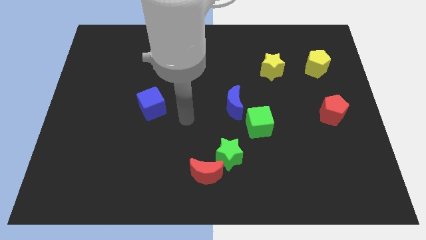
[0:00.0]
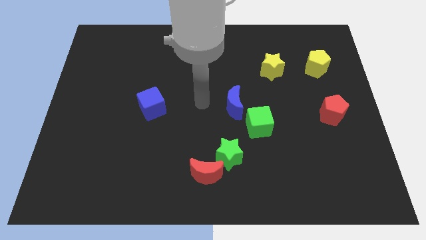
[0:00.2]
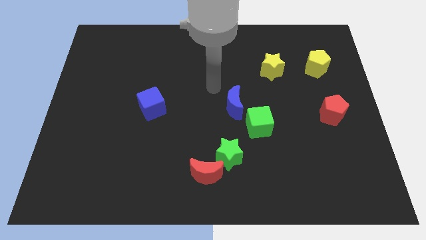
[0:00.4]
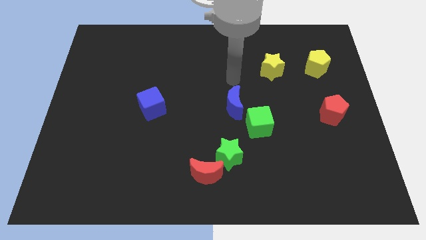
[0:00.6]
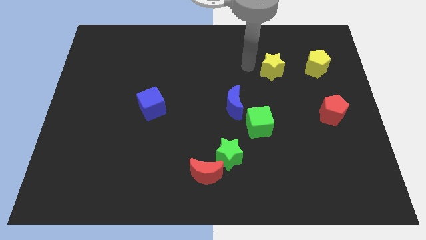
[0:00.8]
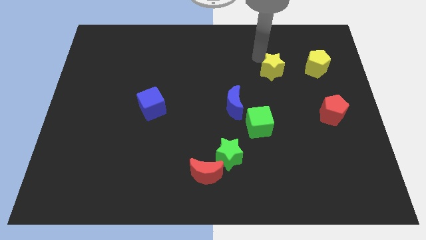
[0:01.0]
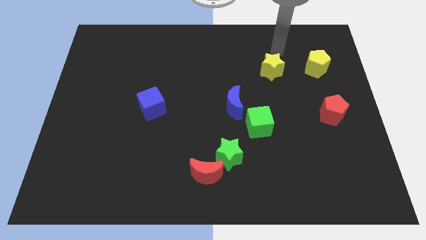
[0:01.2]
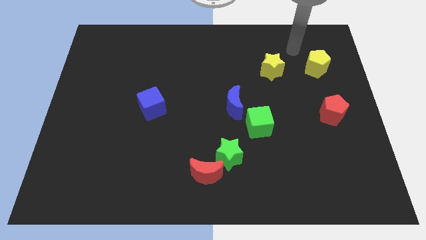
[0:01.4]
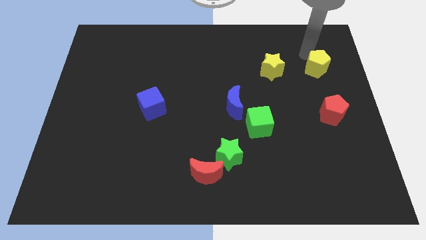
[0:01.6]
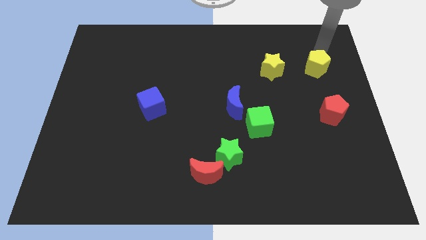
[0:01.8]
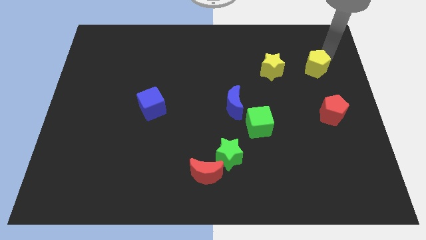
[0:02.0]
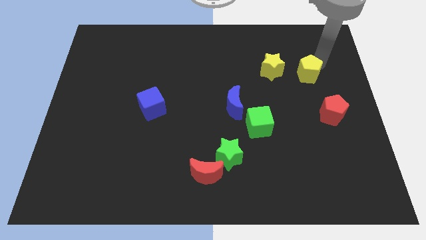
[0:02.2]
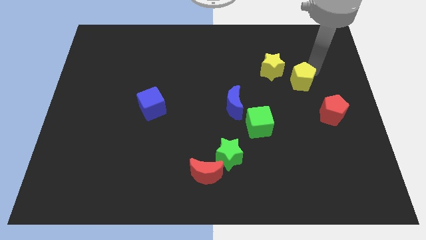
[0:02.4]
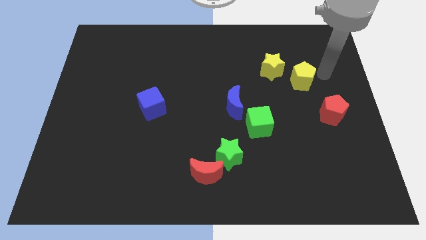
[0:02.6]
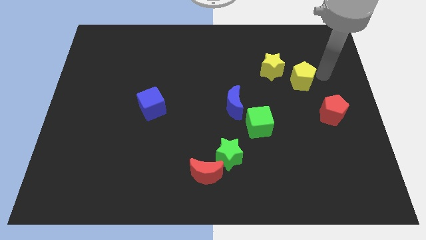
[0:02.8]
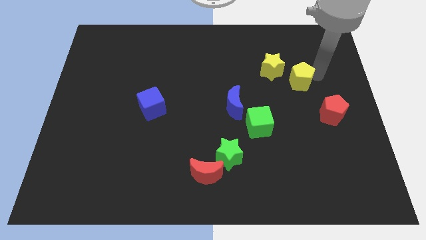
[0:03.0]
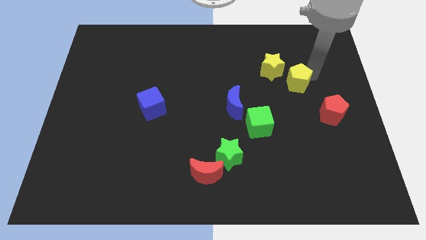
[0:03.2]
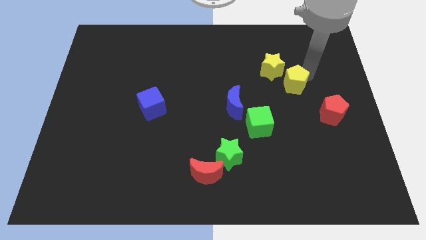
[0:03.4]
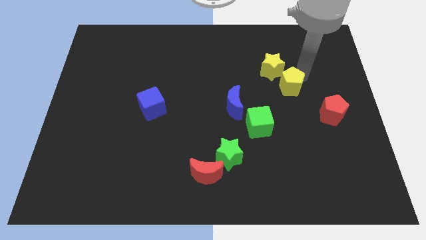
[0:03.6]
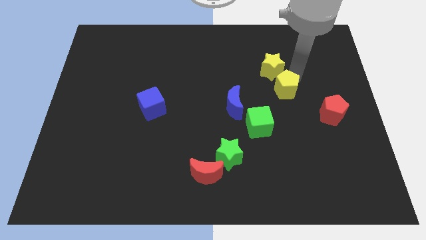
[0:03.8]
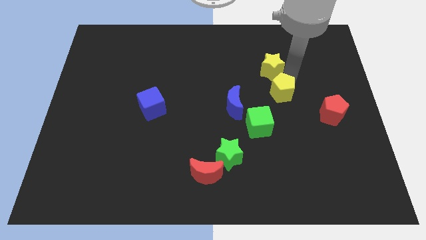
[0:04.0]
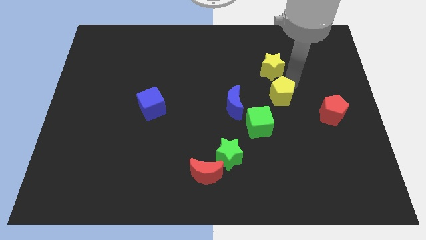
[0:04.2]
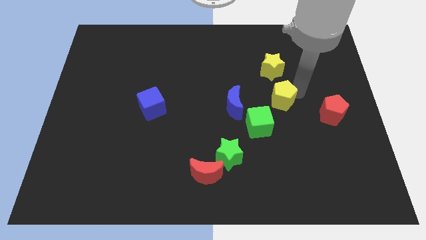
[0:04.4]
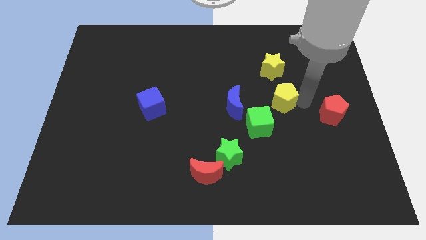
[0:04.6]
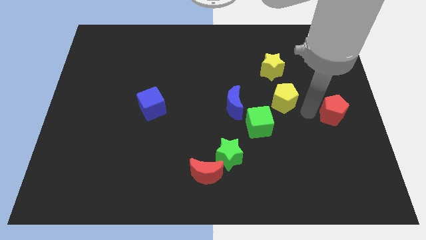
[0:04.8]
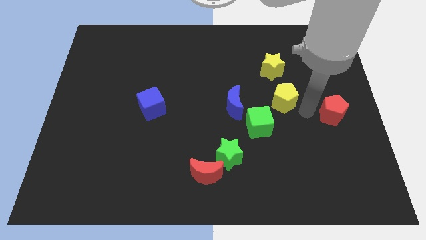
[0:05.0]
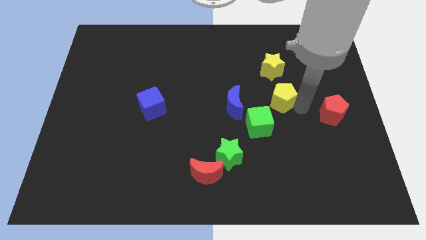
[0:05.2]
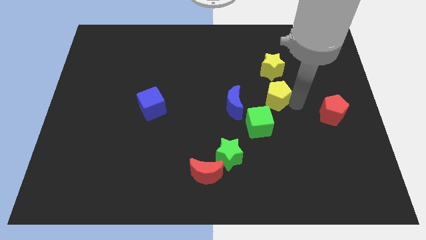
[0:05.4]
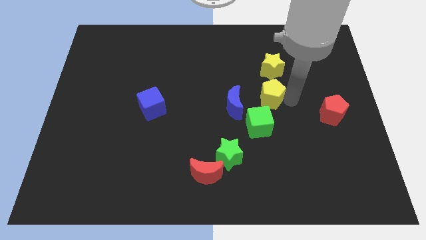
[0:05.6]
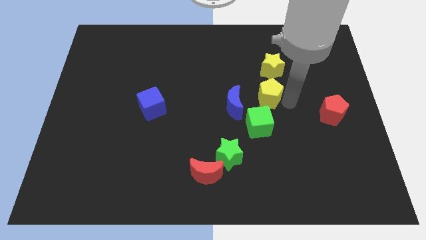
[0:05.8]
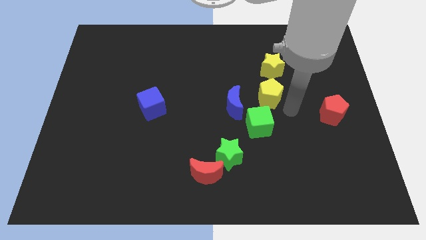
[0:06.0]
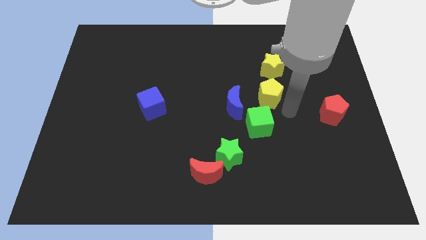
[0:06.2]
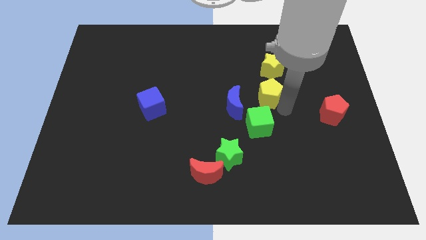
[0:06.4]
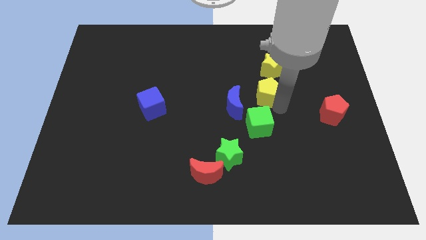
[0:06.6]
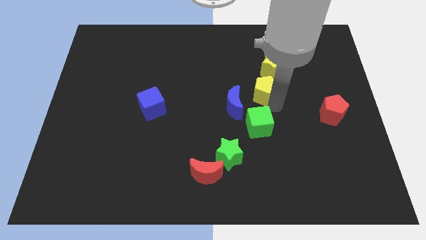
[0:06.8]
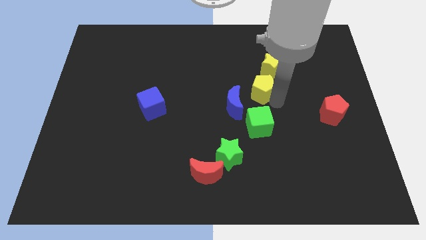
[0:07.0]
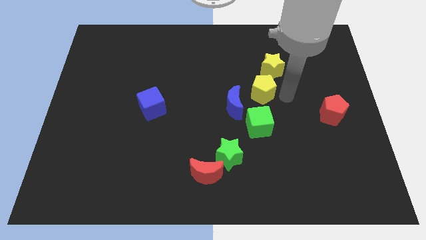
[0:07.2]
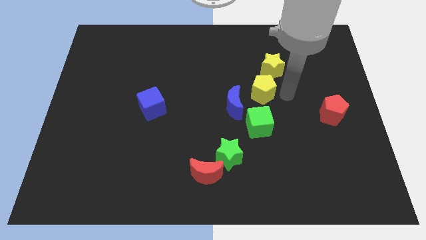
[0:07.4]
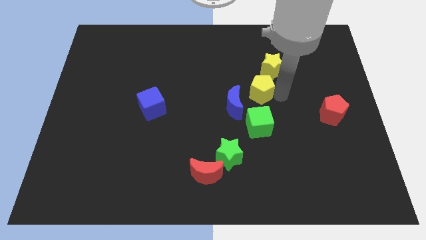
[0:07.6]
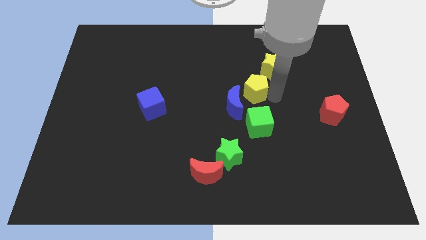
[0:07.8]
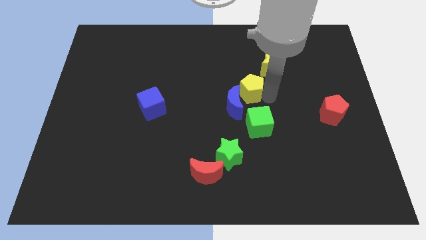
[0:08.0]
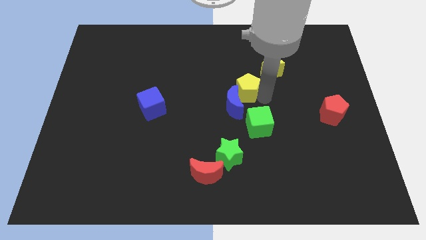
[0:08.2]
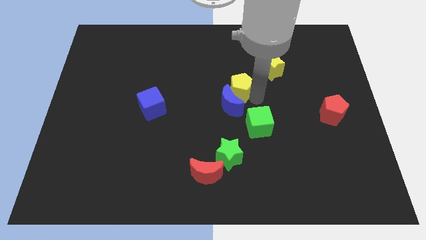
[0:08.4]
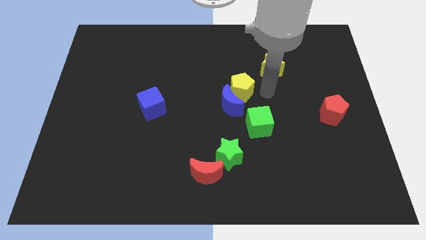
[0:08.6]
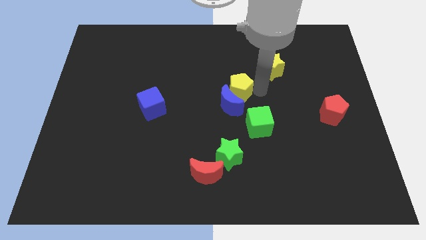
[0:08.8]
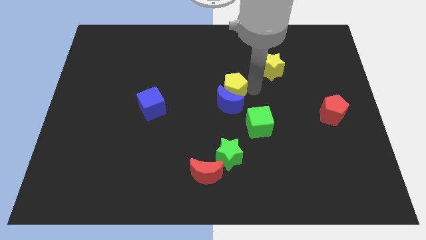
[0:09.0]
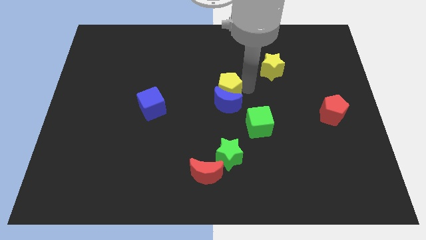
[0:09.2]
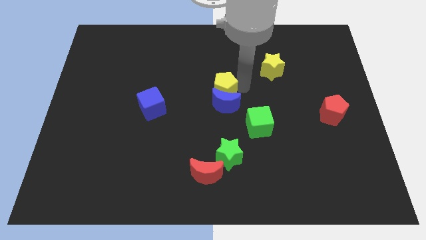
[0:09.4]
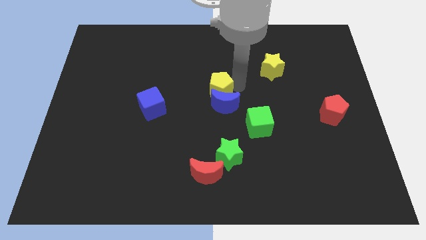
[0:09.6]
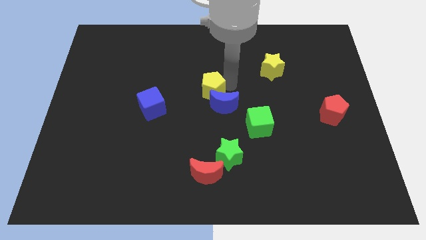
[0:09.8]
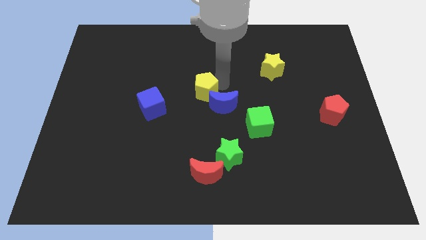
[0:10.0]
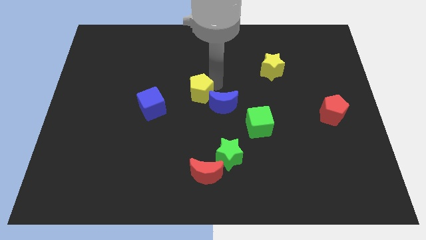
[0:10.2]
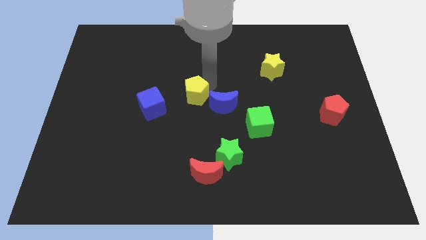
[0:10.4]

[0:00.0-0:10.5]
move the yellow pentagon to the top right side of the blue cube
